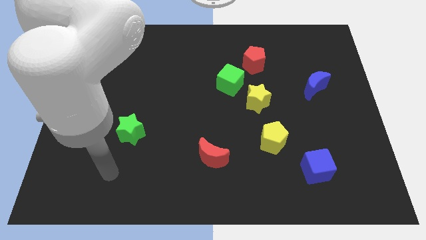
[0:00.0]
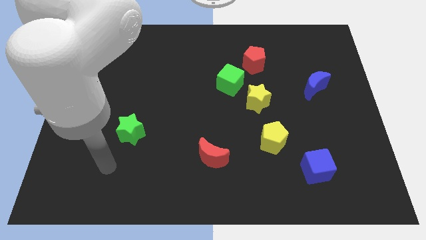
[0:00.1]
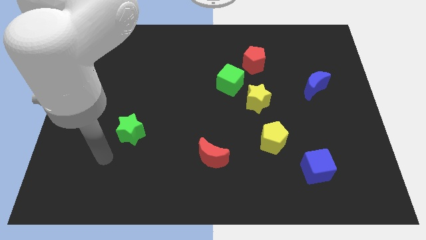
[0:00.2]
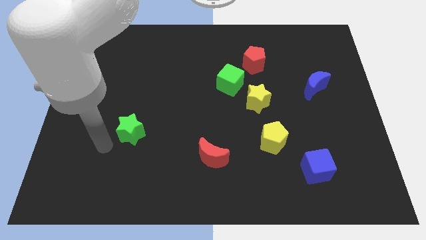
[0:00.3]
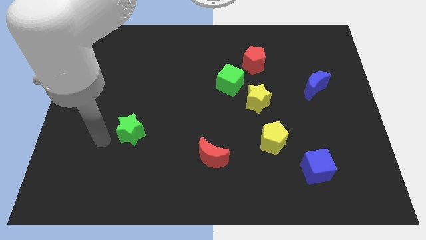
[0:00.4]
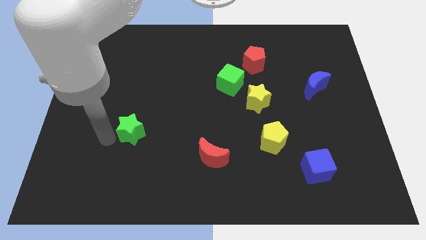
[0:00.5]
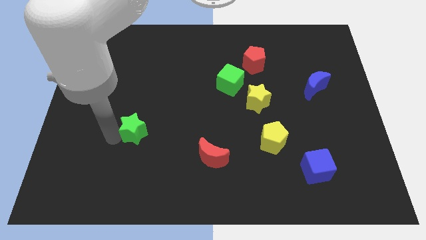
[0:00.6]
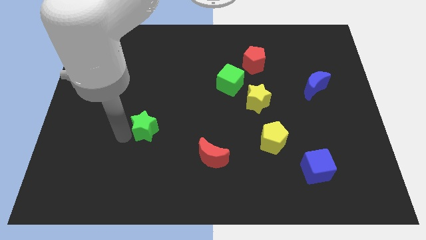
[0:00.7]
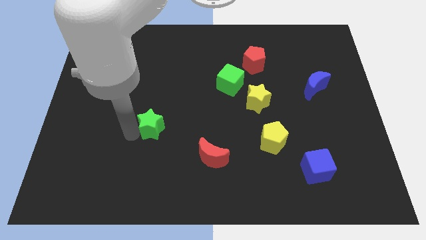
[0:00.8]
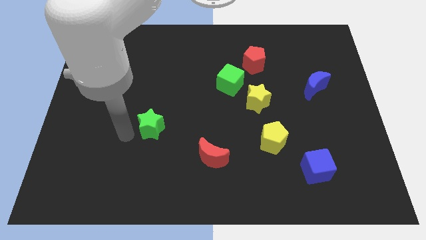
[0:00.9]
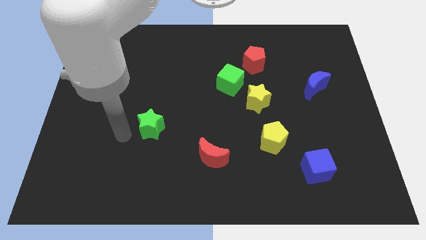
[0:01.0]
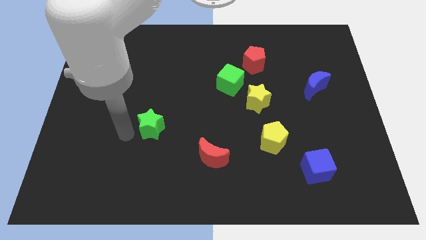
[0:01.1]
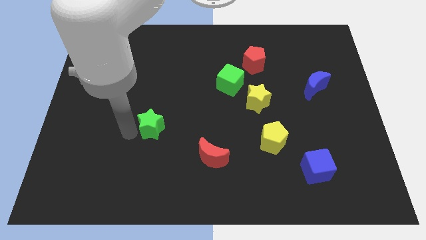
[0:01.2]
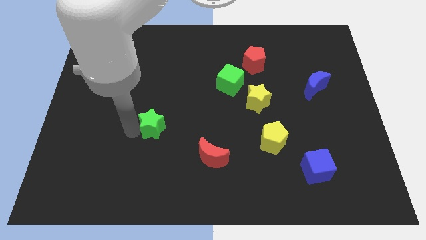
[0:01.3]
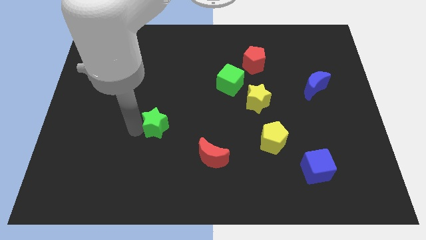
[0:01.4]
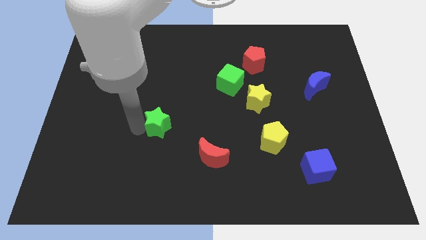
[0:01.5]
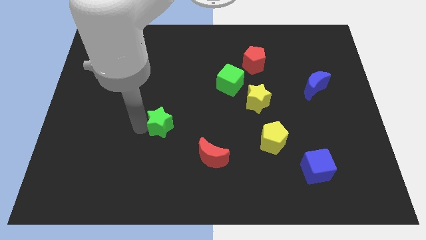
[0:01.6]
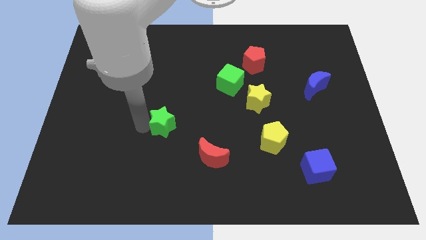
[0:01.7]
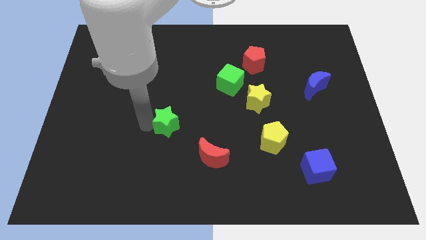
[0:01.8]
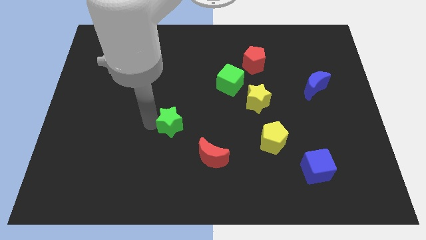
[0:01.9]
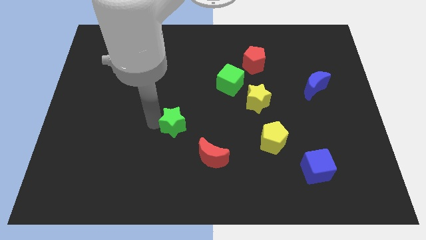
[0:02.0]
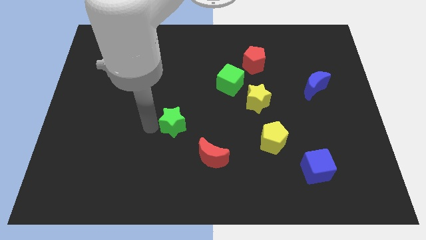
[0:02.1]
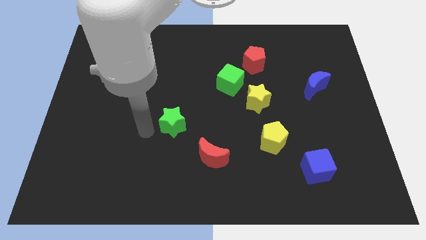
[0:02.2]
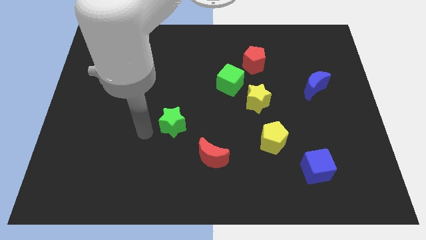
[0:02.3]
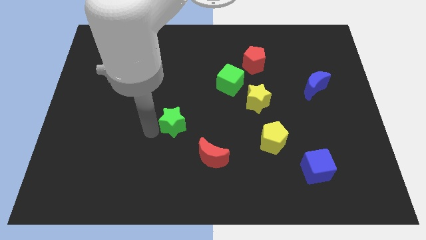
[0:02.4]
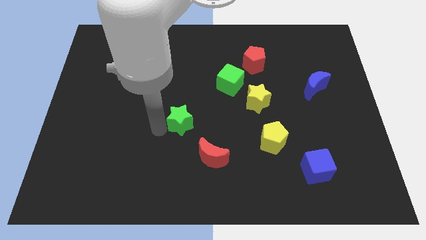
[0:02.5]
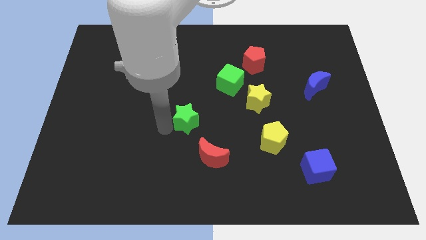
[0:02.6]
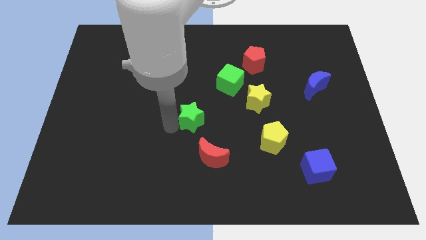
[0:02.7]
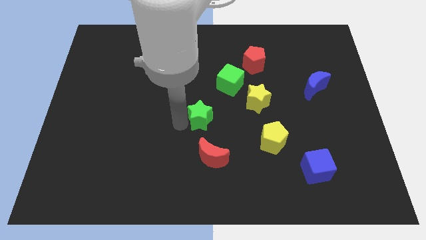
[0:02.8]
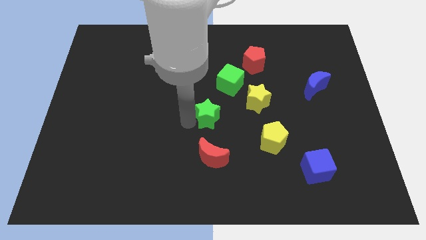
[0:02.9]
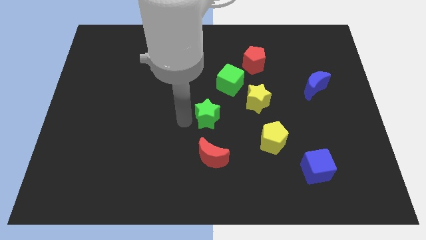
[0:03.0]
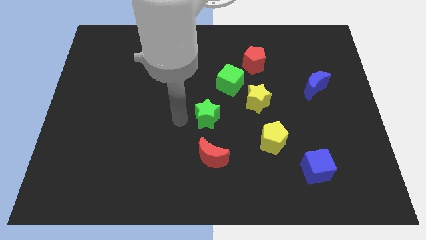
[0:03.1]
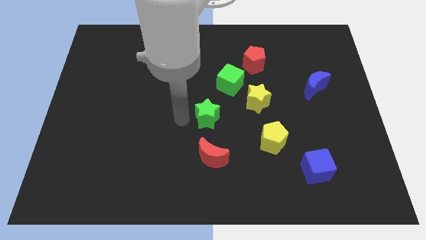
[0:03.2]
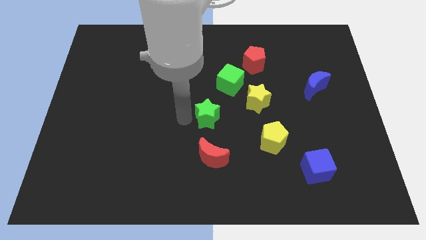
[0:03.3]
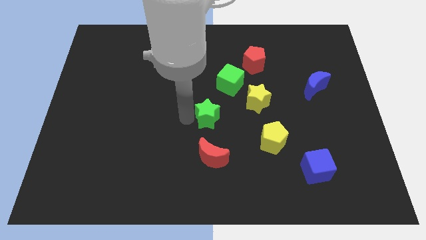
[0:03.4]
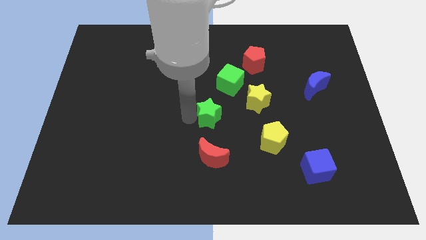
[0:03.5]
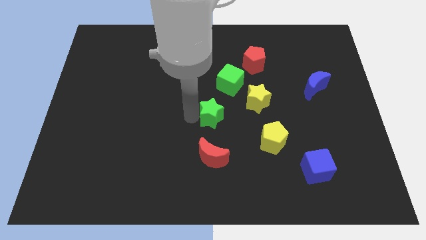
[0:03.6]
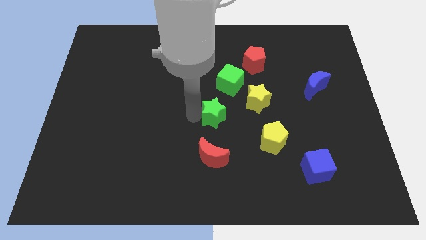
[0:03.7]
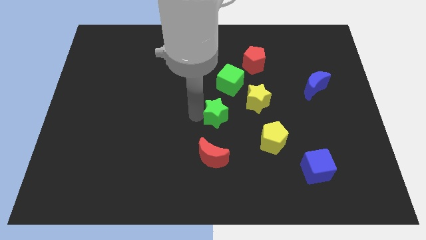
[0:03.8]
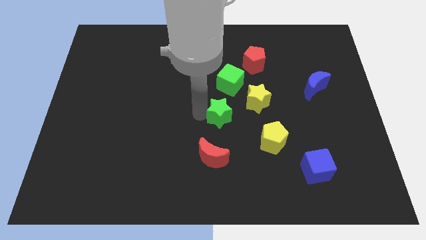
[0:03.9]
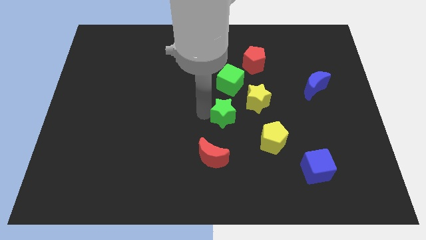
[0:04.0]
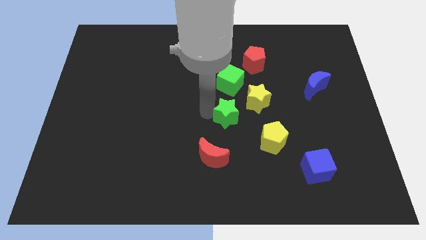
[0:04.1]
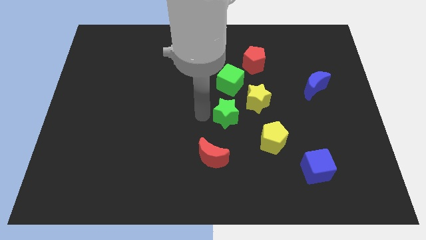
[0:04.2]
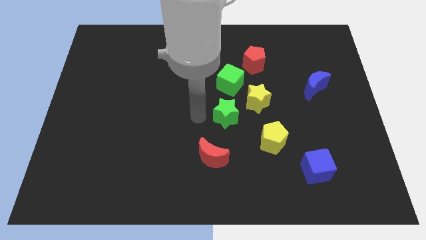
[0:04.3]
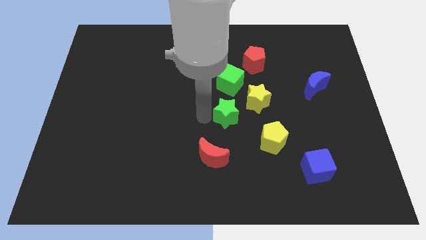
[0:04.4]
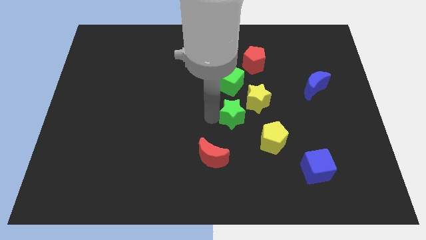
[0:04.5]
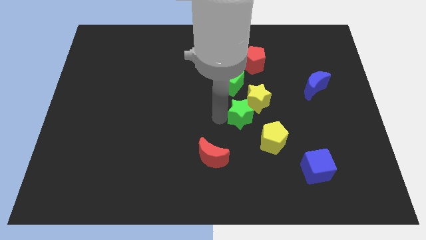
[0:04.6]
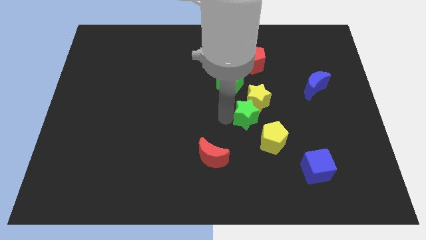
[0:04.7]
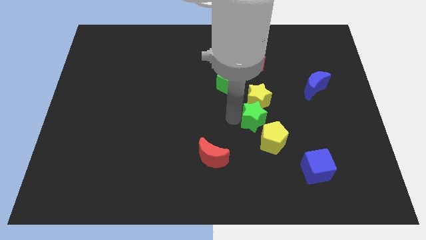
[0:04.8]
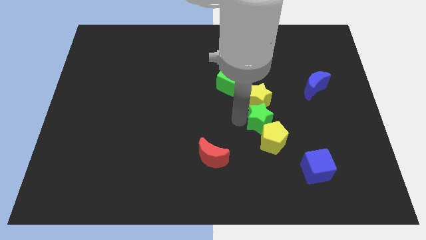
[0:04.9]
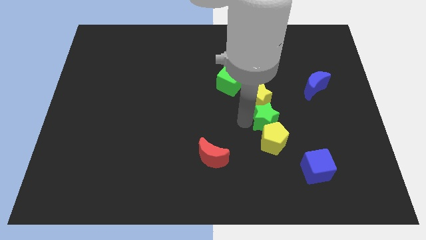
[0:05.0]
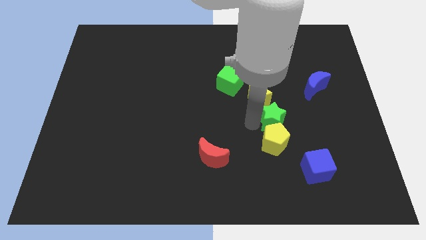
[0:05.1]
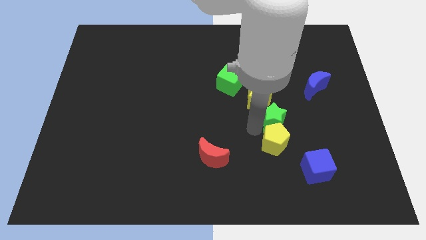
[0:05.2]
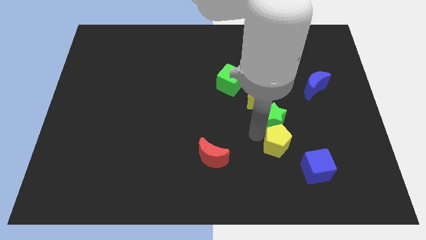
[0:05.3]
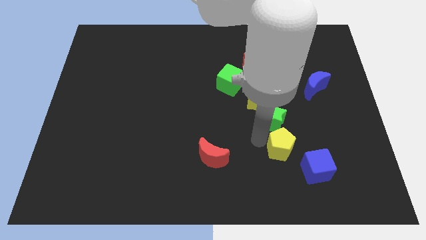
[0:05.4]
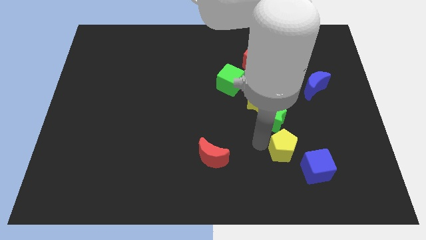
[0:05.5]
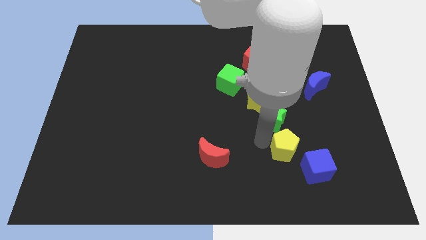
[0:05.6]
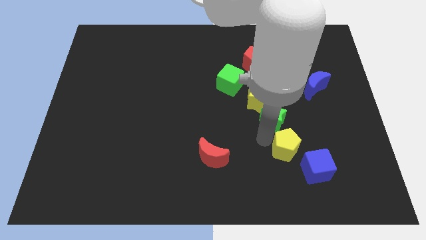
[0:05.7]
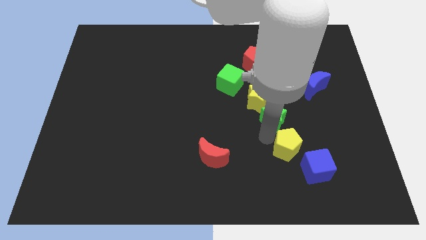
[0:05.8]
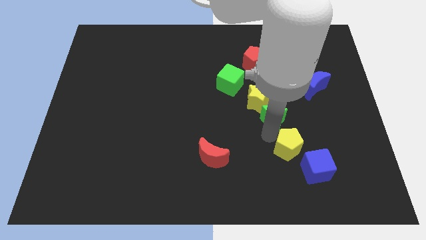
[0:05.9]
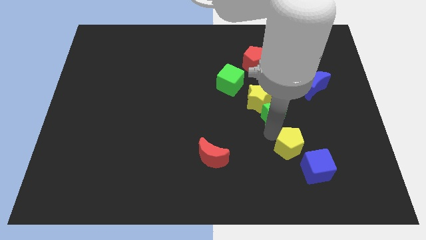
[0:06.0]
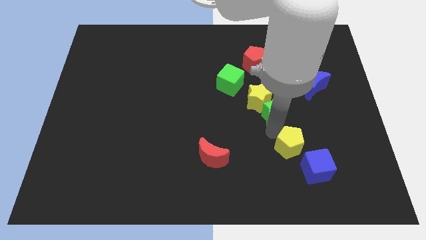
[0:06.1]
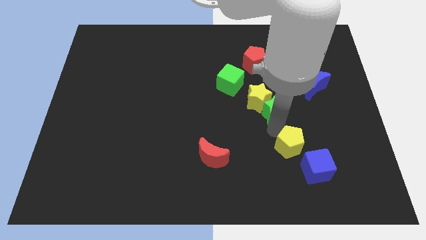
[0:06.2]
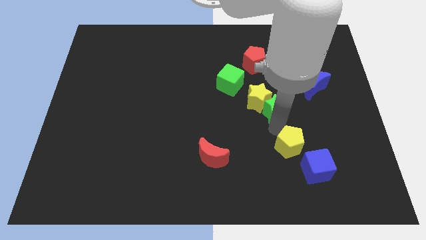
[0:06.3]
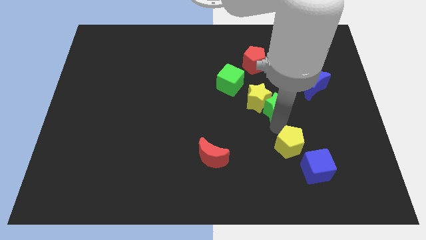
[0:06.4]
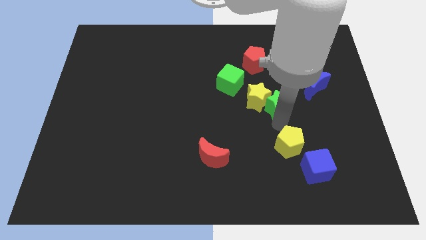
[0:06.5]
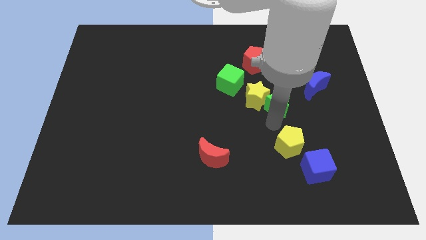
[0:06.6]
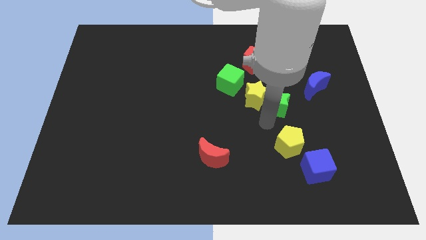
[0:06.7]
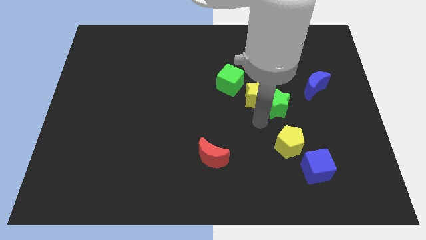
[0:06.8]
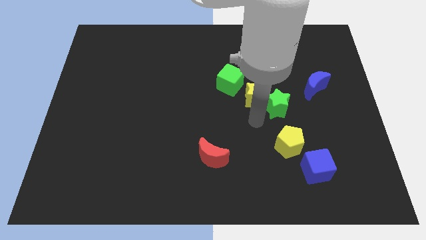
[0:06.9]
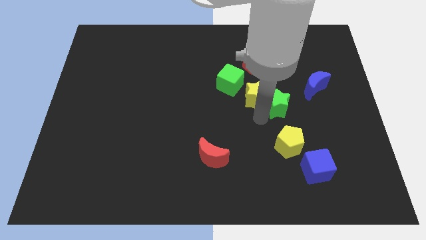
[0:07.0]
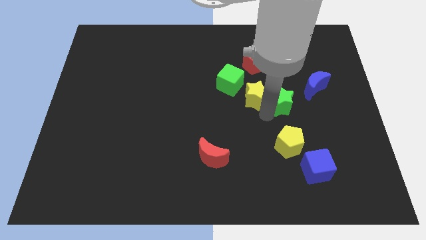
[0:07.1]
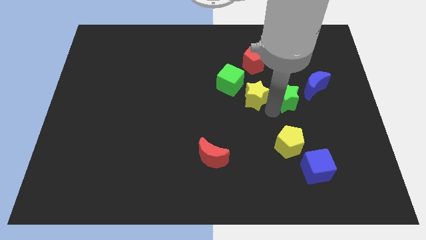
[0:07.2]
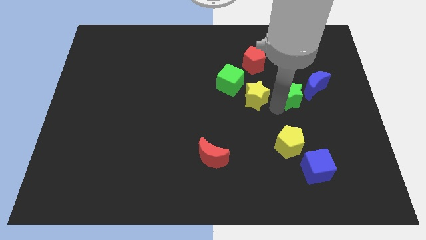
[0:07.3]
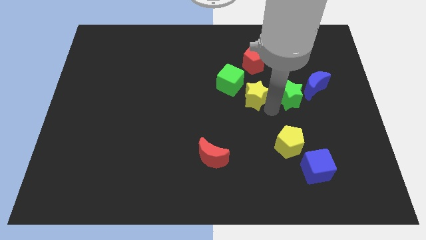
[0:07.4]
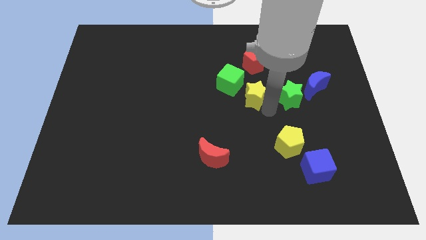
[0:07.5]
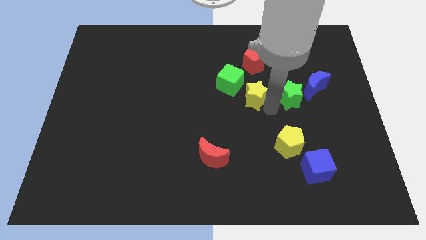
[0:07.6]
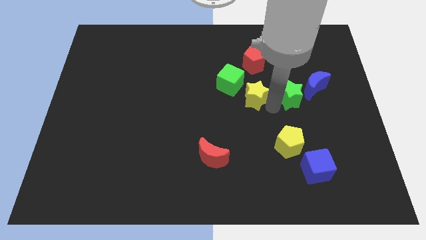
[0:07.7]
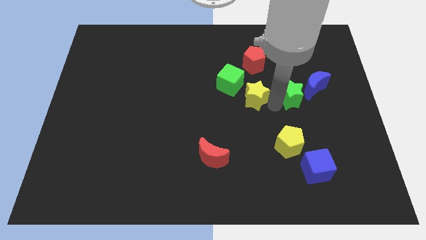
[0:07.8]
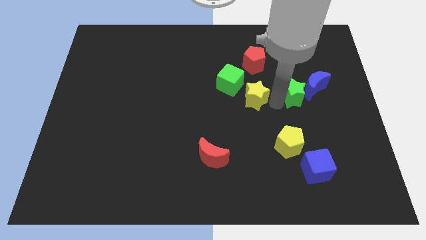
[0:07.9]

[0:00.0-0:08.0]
move the green star towards the blue moon
